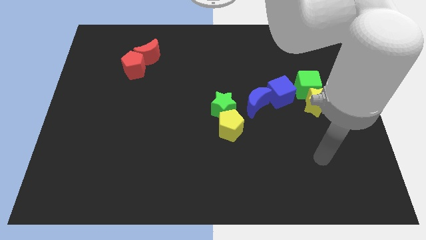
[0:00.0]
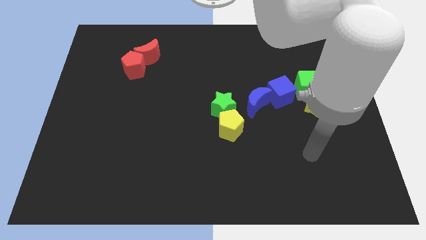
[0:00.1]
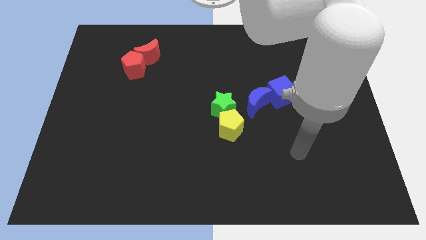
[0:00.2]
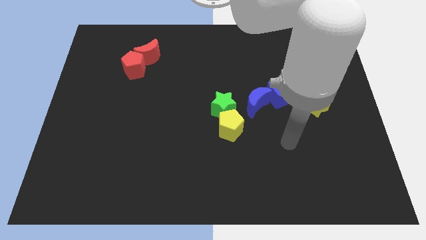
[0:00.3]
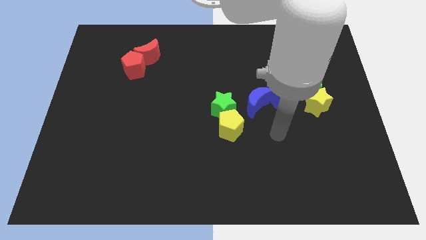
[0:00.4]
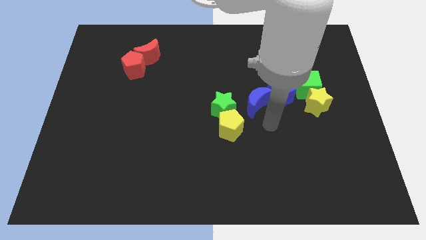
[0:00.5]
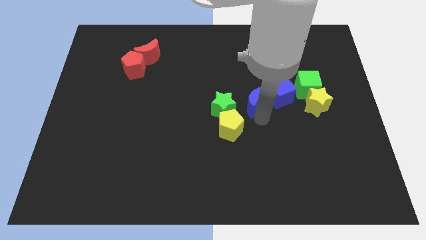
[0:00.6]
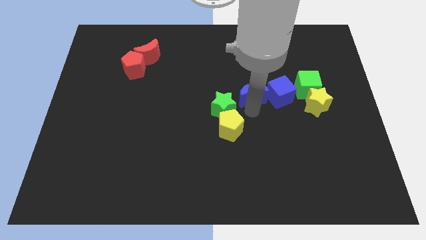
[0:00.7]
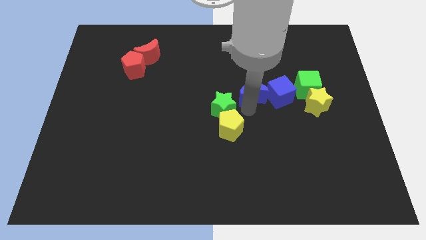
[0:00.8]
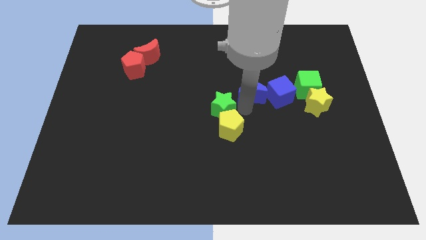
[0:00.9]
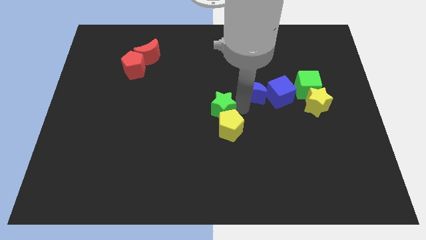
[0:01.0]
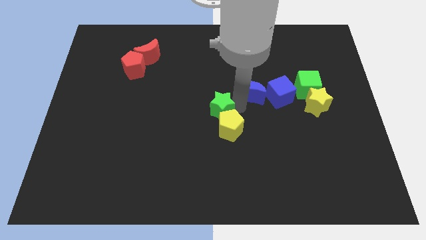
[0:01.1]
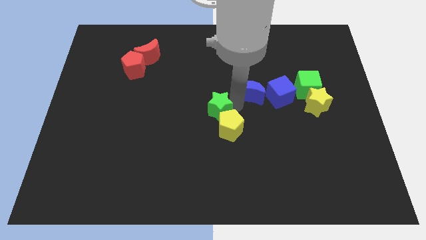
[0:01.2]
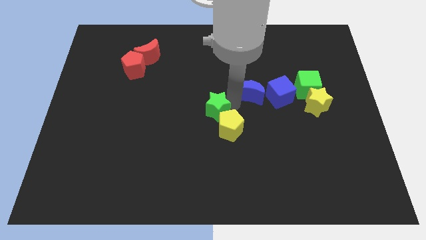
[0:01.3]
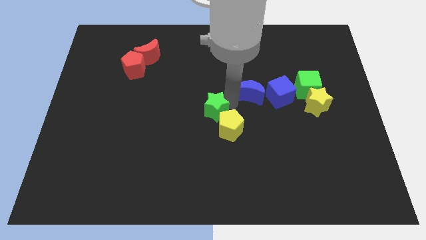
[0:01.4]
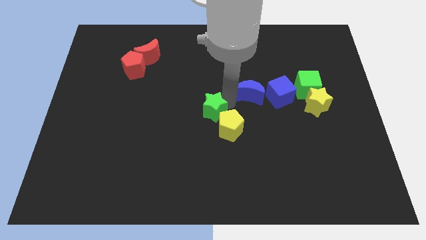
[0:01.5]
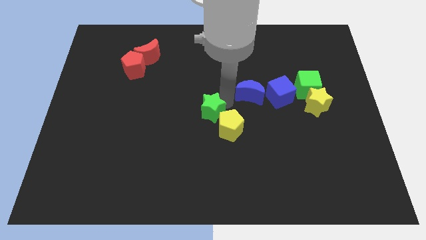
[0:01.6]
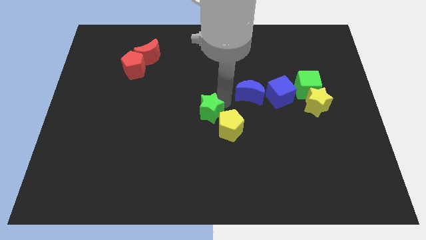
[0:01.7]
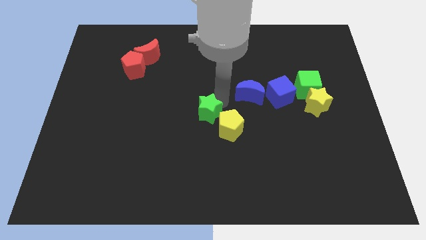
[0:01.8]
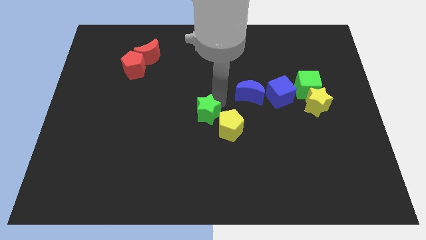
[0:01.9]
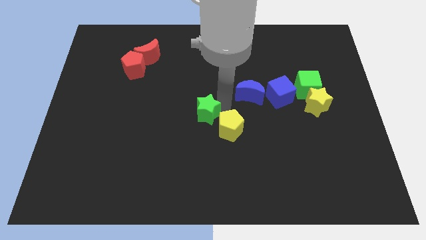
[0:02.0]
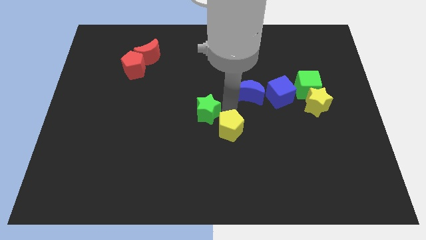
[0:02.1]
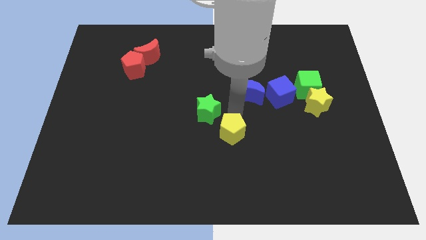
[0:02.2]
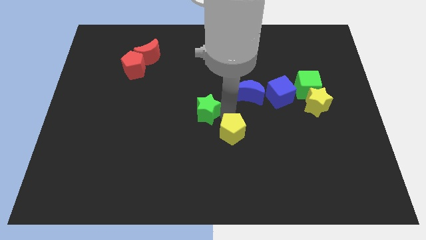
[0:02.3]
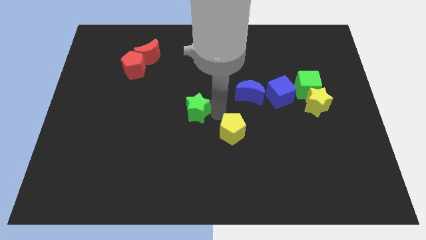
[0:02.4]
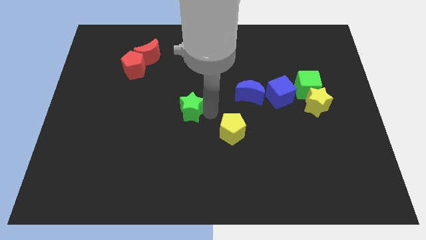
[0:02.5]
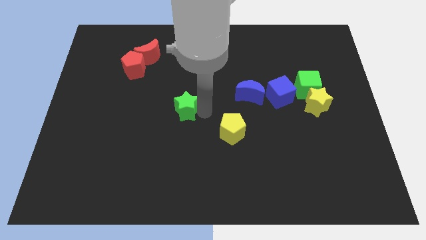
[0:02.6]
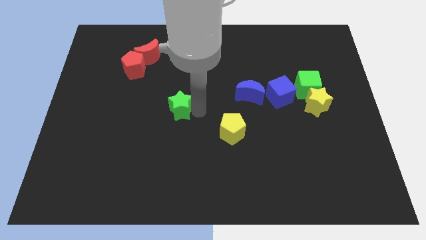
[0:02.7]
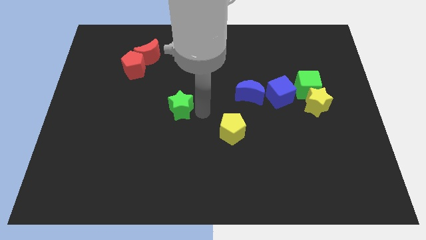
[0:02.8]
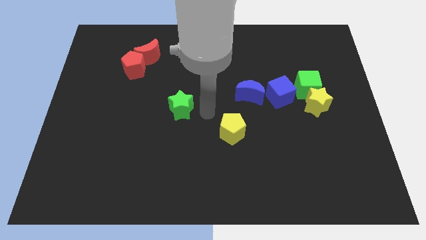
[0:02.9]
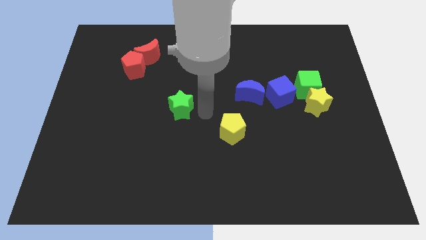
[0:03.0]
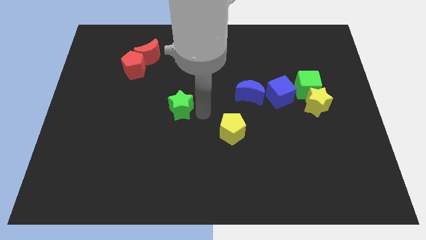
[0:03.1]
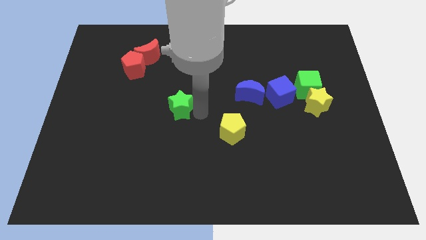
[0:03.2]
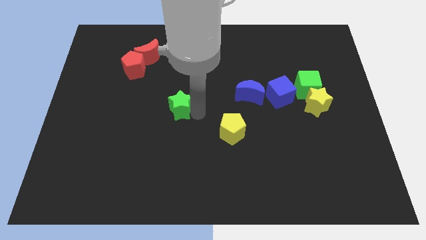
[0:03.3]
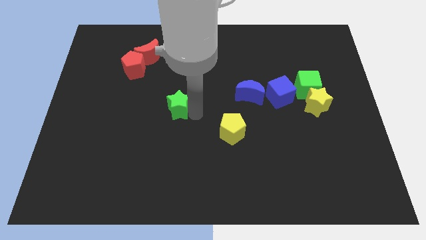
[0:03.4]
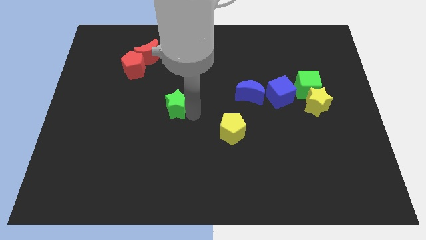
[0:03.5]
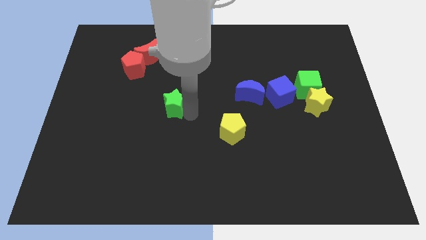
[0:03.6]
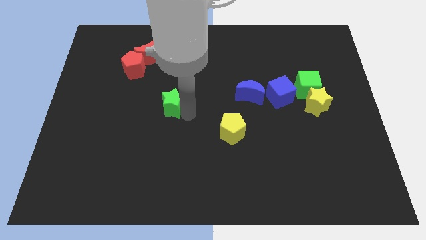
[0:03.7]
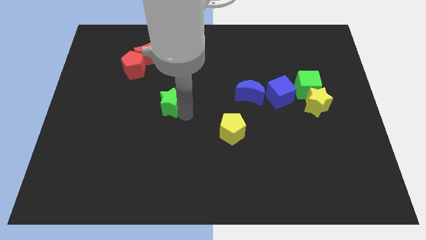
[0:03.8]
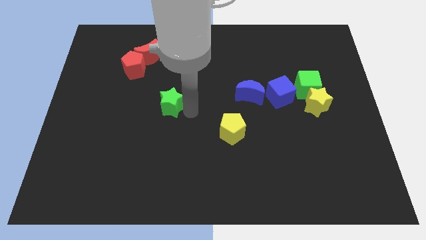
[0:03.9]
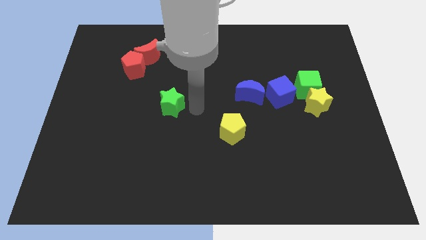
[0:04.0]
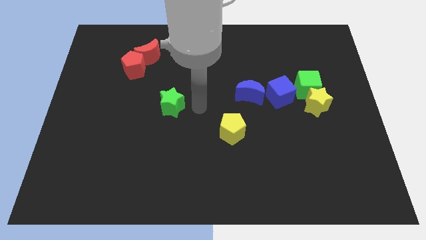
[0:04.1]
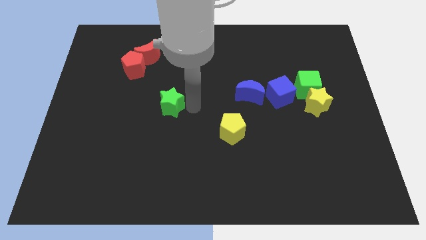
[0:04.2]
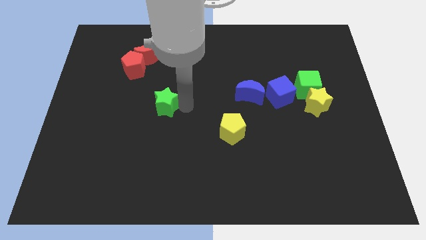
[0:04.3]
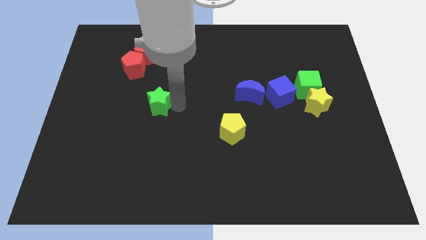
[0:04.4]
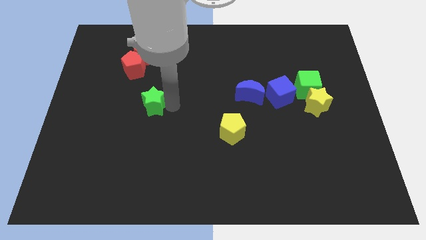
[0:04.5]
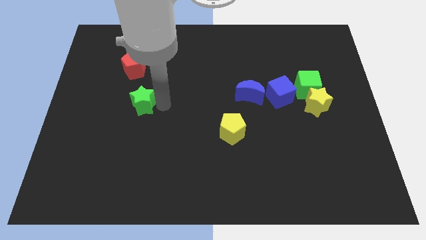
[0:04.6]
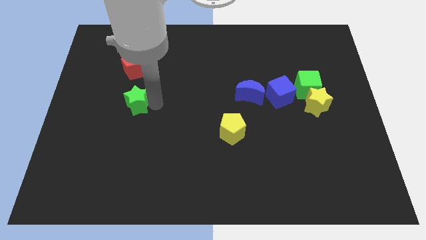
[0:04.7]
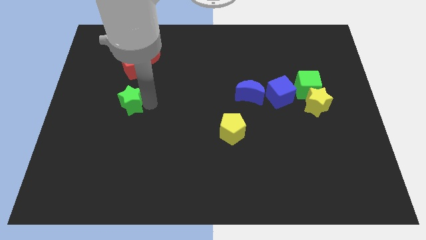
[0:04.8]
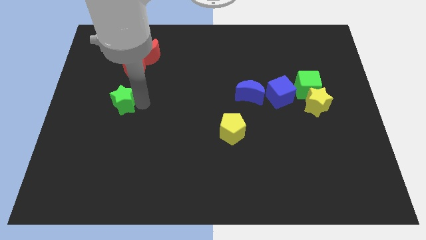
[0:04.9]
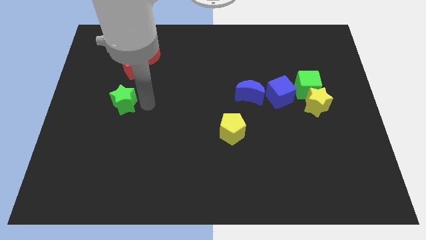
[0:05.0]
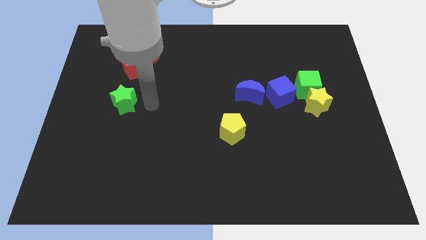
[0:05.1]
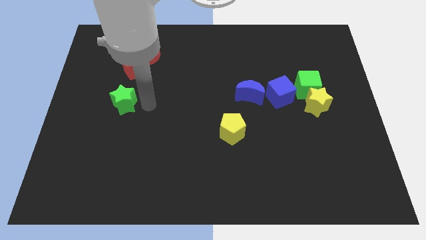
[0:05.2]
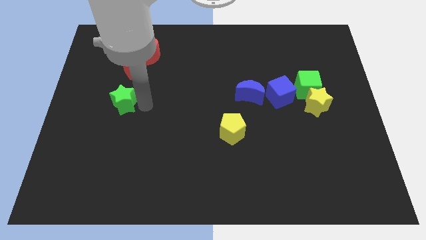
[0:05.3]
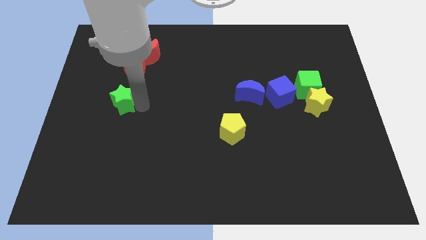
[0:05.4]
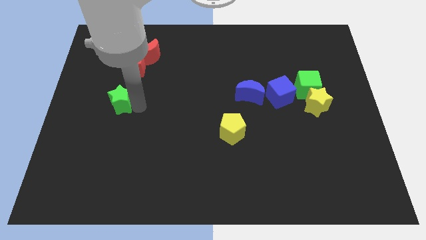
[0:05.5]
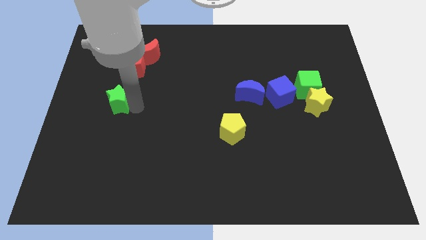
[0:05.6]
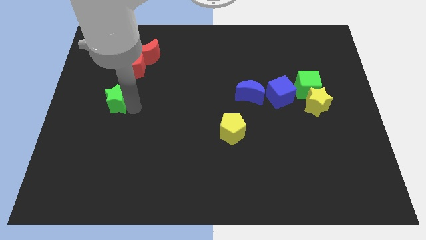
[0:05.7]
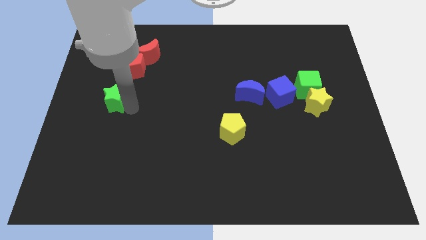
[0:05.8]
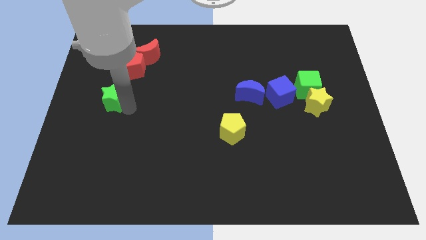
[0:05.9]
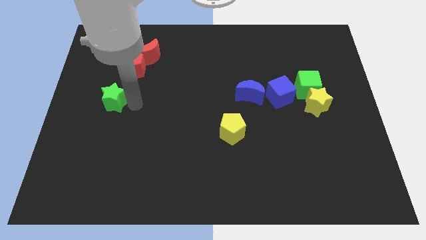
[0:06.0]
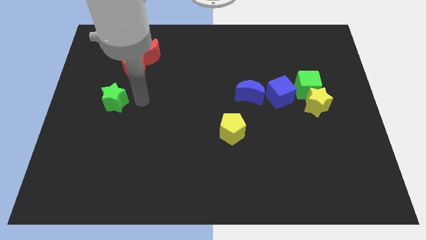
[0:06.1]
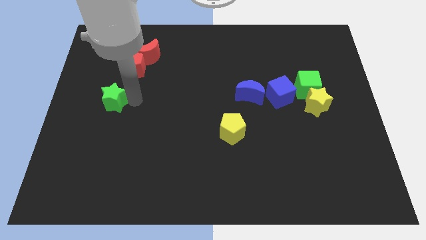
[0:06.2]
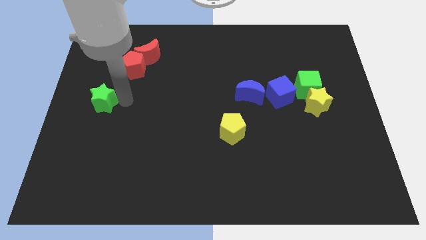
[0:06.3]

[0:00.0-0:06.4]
slide the green star to the left side of the board

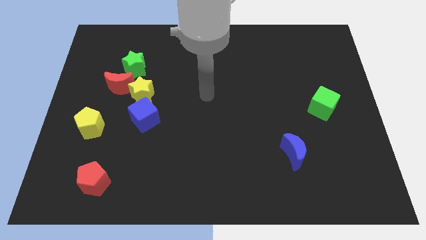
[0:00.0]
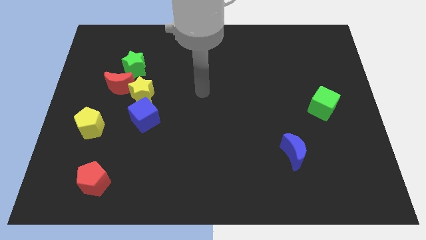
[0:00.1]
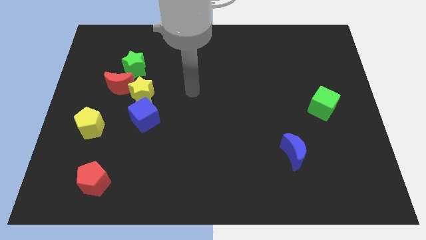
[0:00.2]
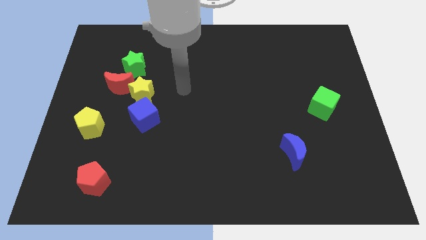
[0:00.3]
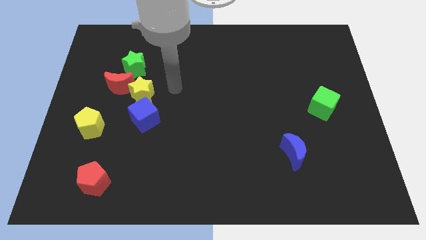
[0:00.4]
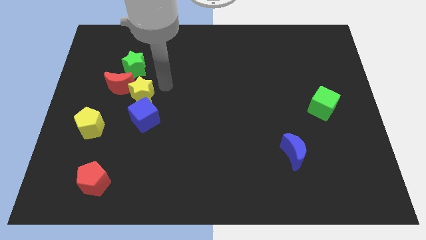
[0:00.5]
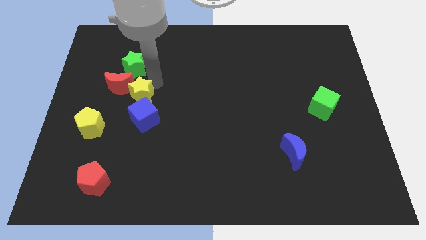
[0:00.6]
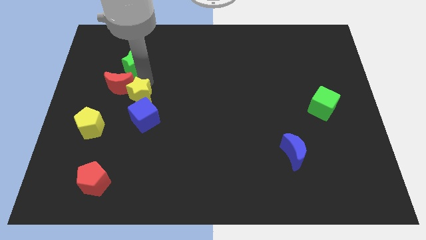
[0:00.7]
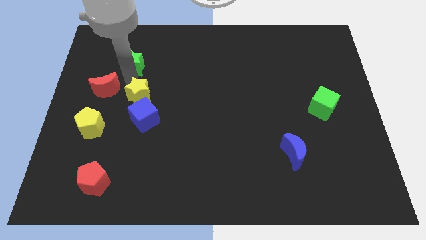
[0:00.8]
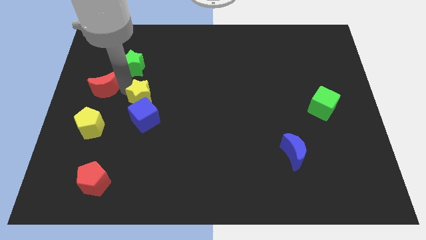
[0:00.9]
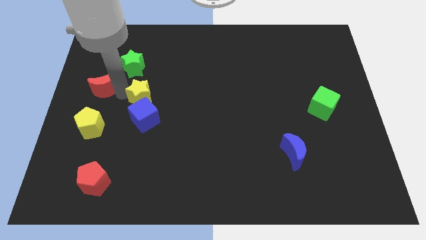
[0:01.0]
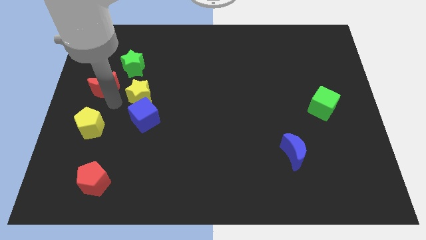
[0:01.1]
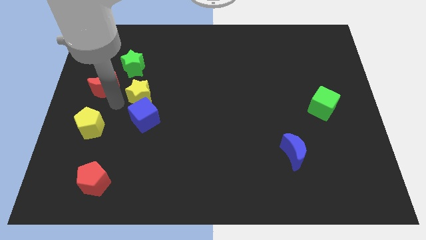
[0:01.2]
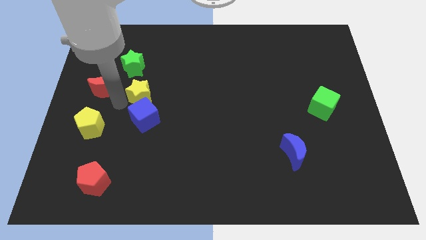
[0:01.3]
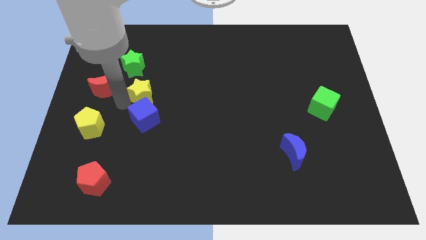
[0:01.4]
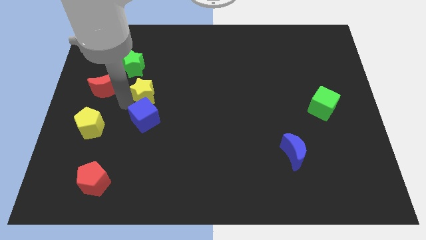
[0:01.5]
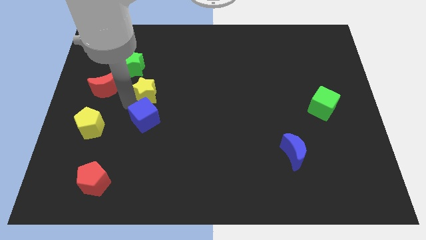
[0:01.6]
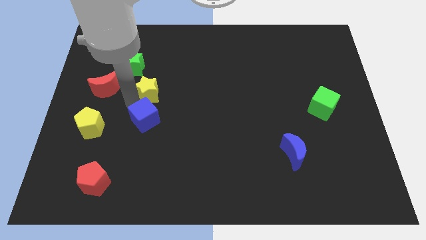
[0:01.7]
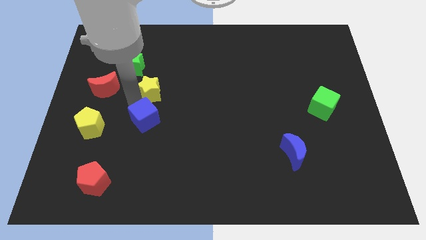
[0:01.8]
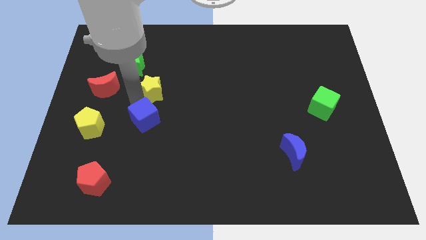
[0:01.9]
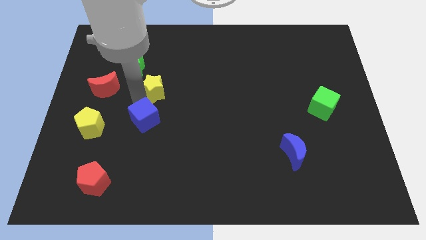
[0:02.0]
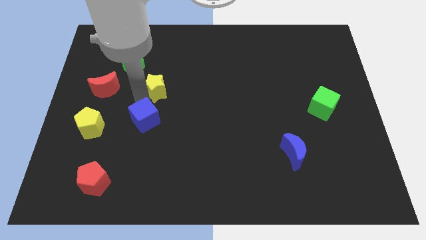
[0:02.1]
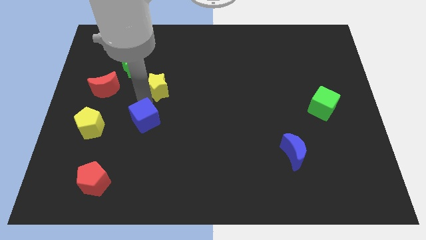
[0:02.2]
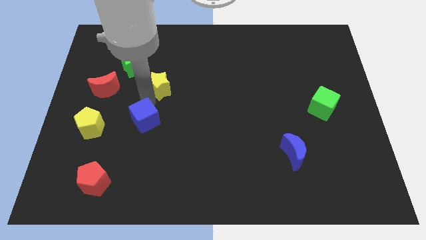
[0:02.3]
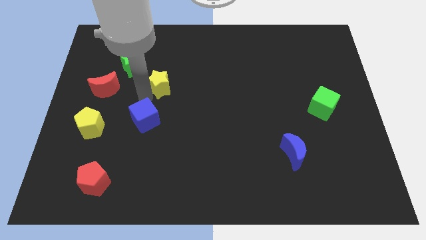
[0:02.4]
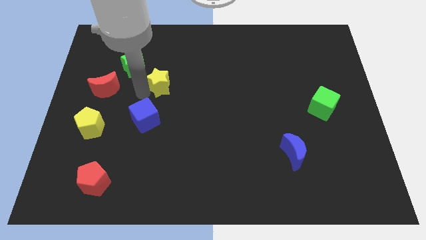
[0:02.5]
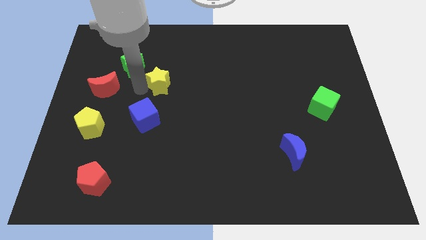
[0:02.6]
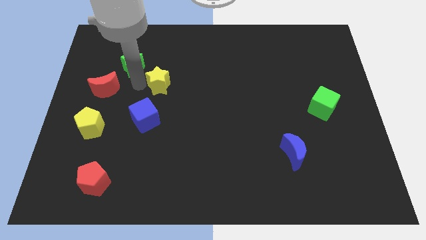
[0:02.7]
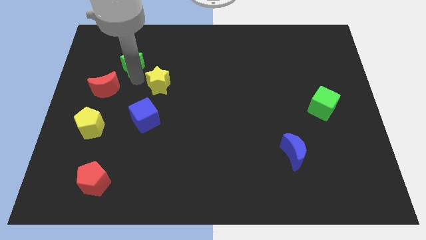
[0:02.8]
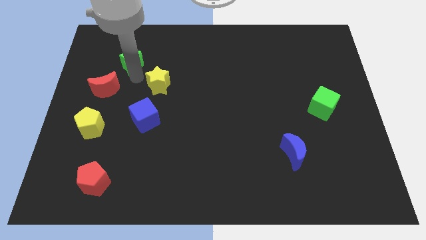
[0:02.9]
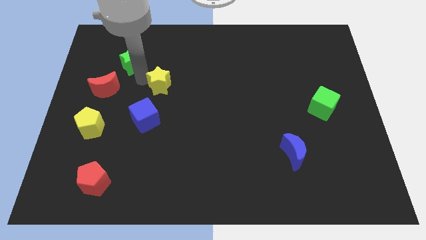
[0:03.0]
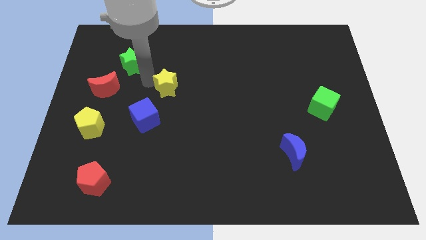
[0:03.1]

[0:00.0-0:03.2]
push the yellow star to the center
